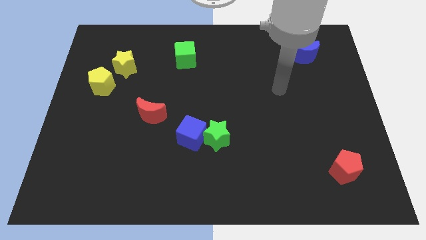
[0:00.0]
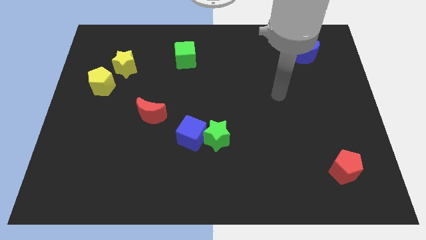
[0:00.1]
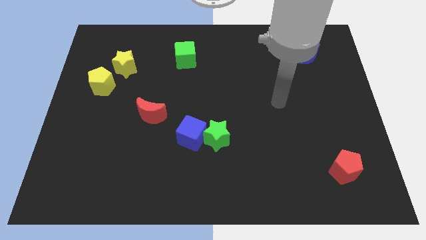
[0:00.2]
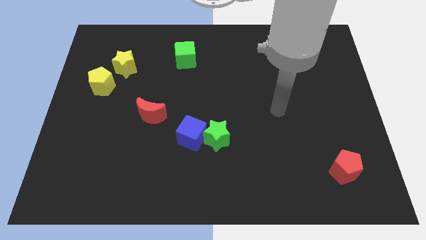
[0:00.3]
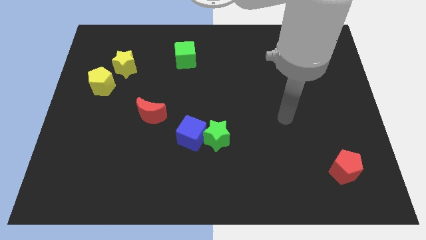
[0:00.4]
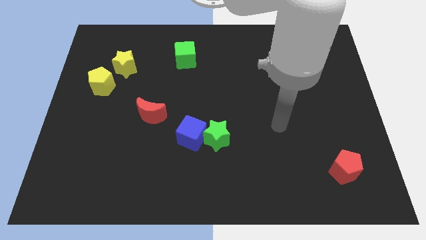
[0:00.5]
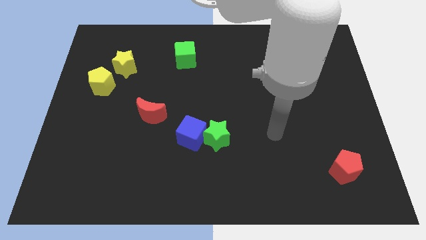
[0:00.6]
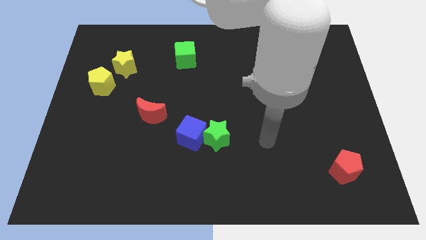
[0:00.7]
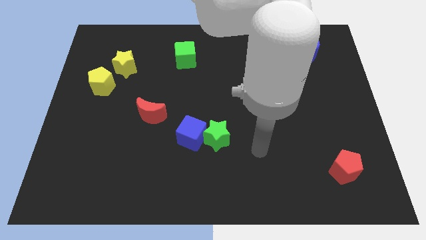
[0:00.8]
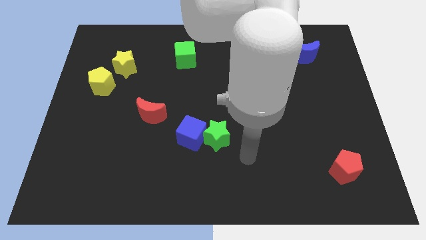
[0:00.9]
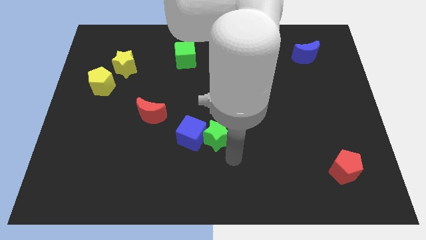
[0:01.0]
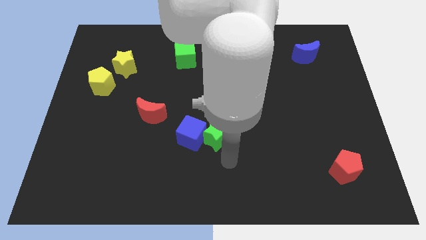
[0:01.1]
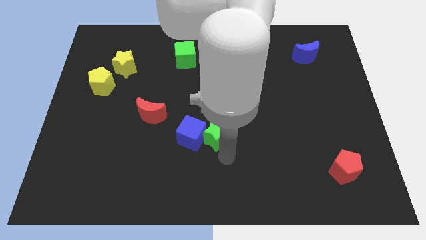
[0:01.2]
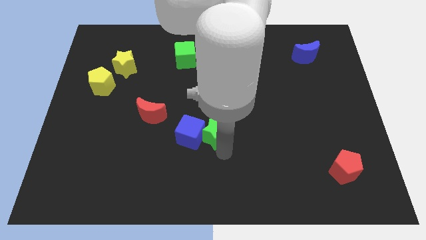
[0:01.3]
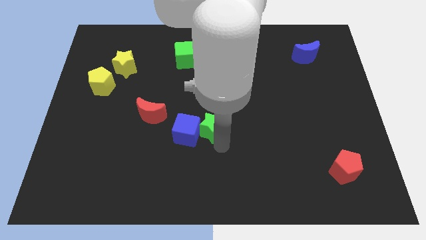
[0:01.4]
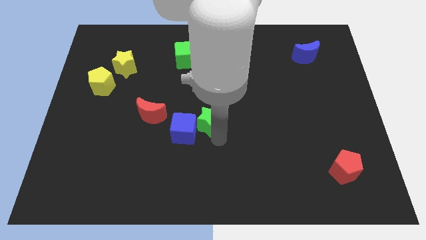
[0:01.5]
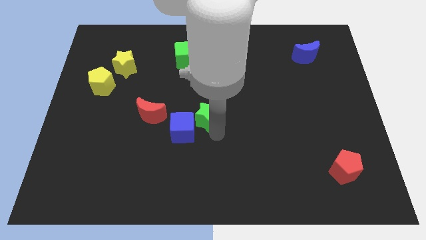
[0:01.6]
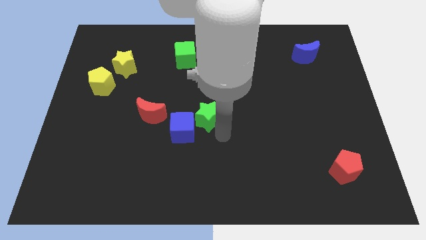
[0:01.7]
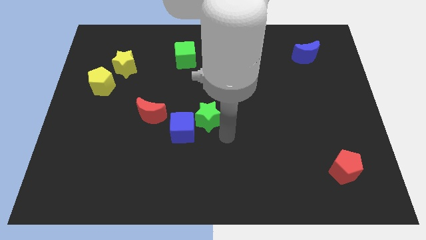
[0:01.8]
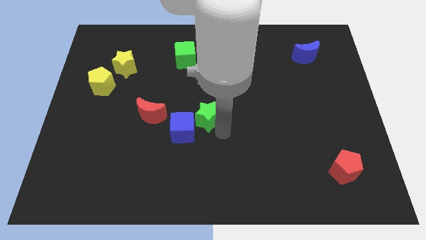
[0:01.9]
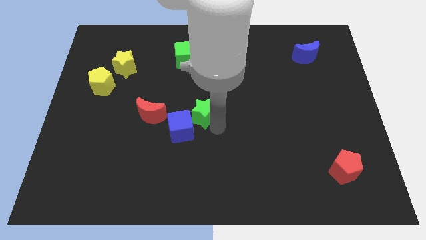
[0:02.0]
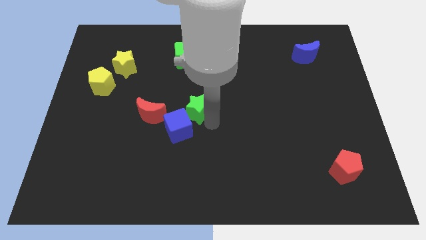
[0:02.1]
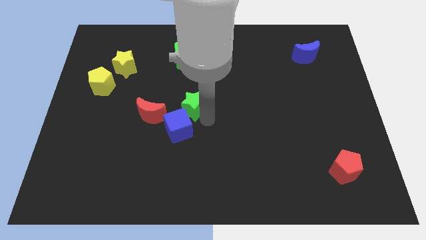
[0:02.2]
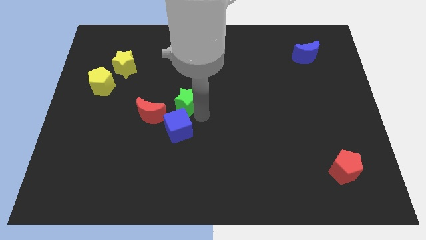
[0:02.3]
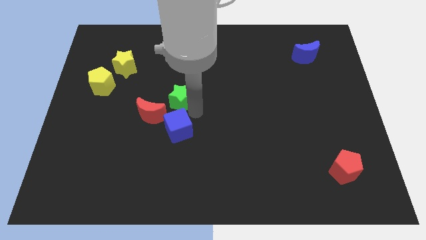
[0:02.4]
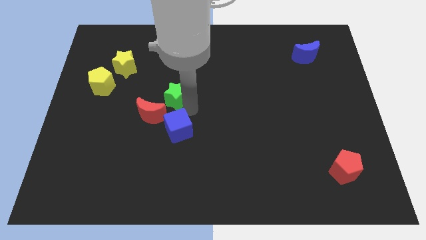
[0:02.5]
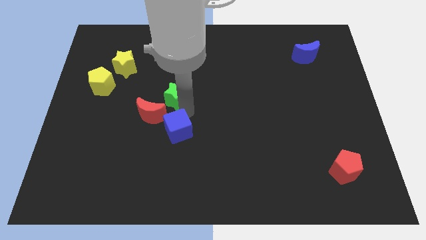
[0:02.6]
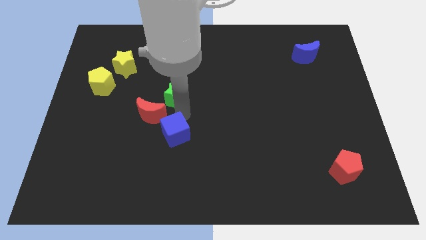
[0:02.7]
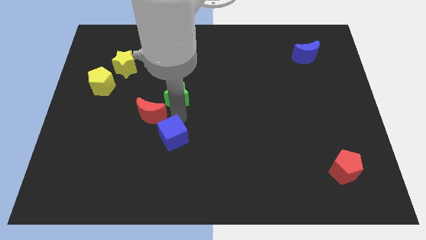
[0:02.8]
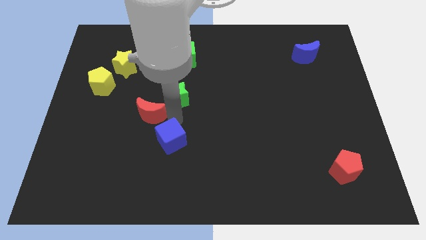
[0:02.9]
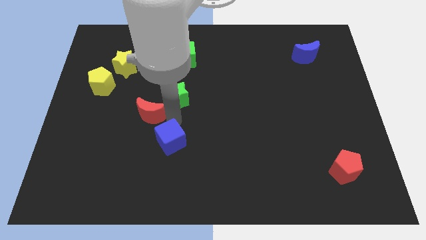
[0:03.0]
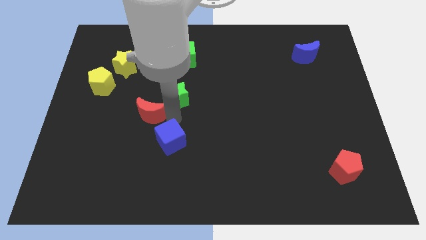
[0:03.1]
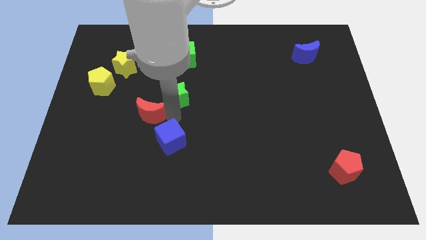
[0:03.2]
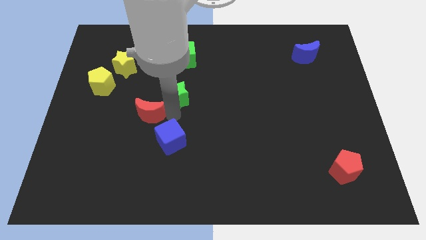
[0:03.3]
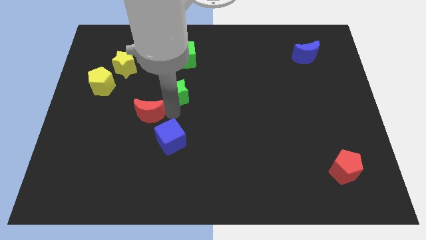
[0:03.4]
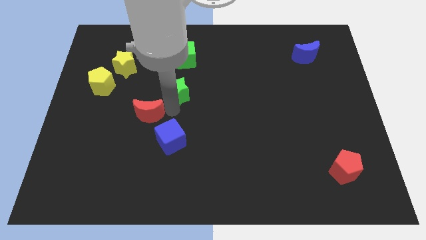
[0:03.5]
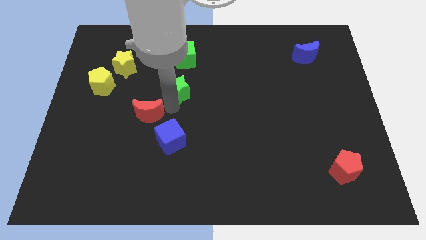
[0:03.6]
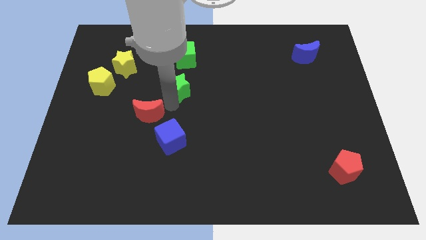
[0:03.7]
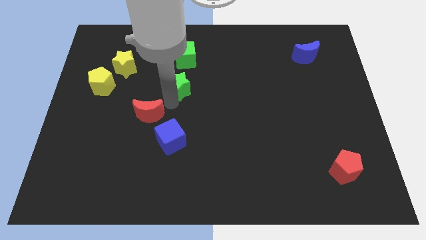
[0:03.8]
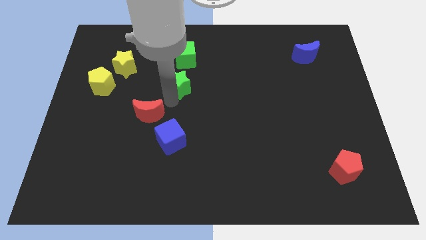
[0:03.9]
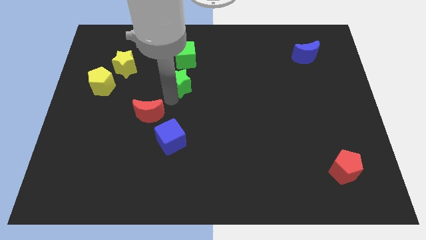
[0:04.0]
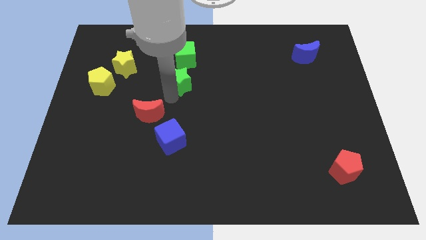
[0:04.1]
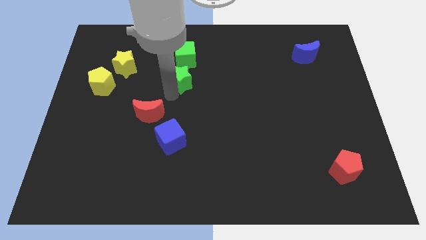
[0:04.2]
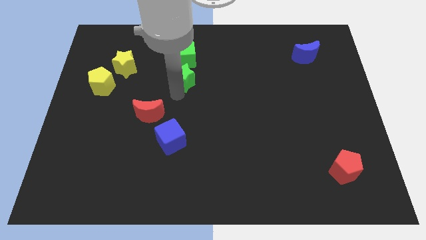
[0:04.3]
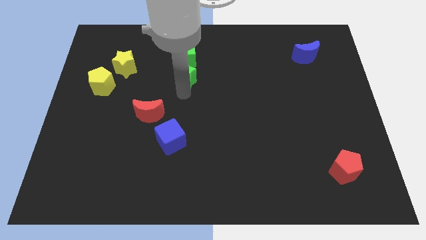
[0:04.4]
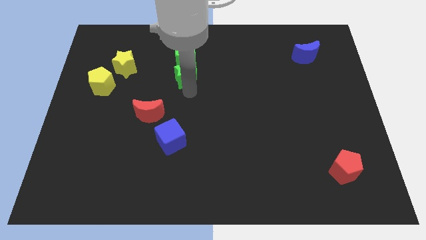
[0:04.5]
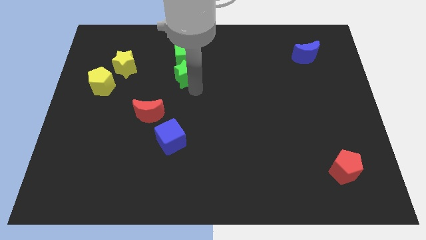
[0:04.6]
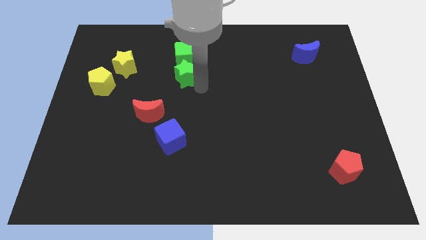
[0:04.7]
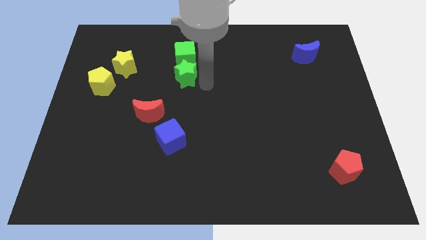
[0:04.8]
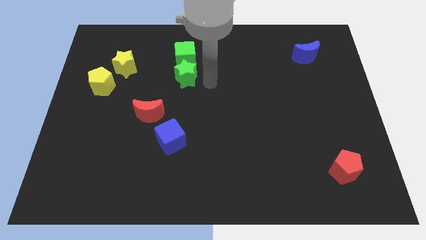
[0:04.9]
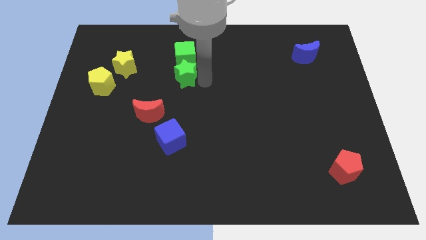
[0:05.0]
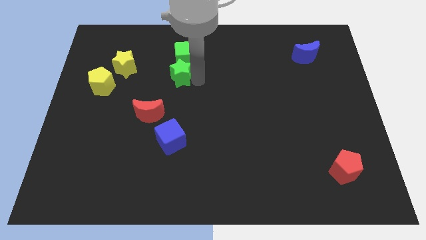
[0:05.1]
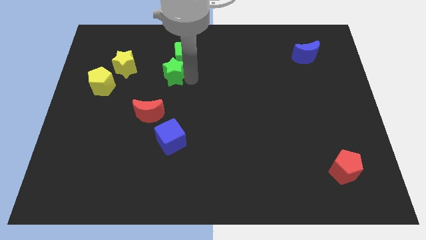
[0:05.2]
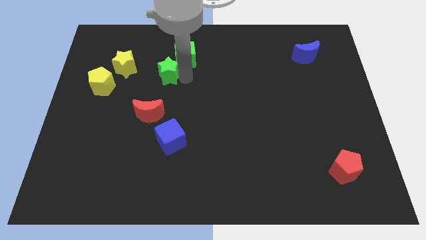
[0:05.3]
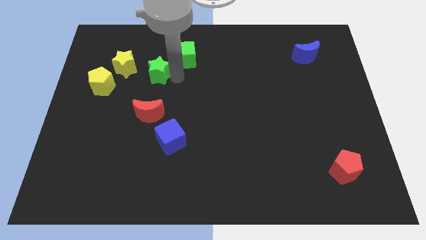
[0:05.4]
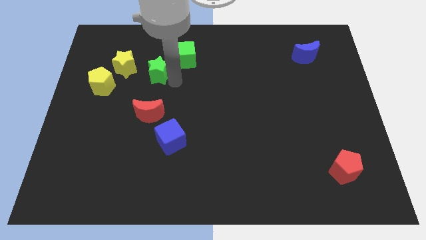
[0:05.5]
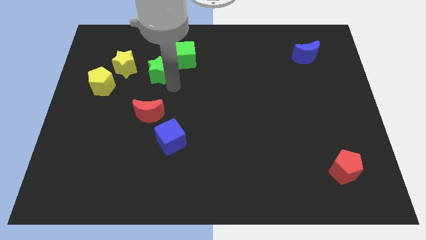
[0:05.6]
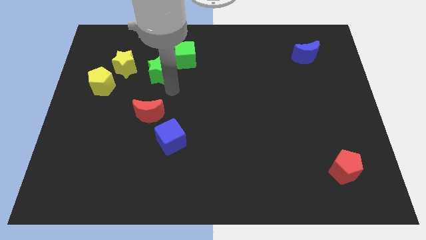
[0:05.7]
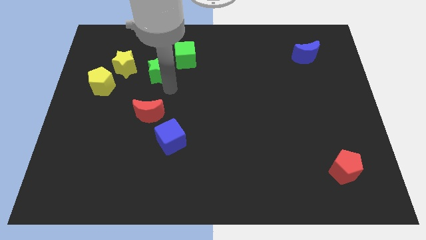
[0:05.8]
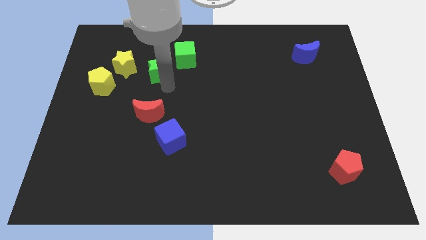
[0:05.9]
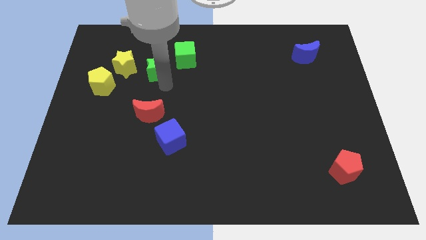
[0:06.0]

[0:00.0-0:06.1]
slide the green star just left of the green cube

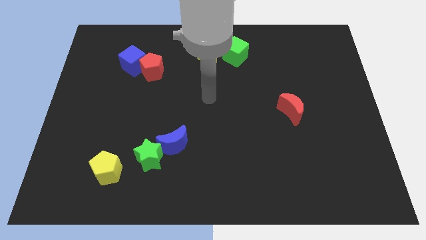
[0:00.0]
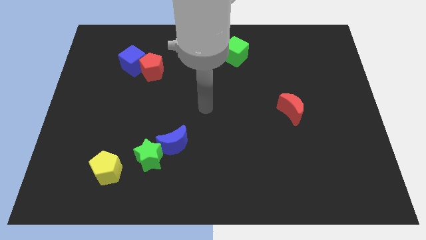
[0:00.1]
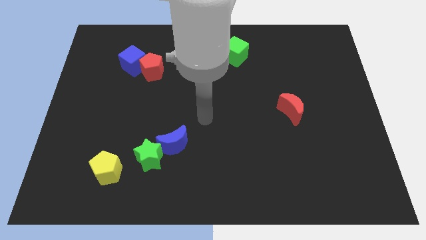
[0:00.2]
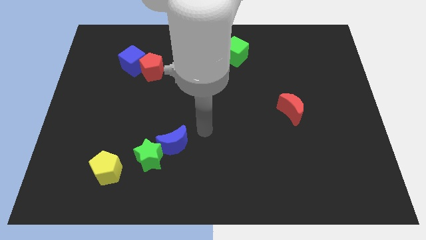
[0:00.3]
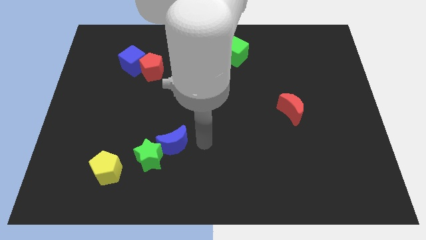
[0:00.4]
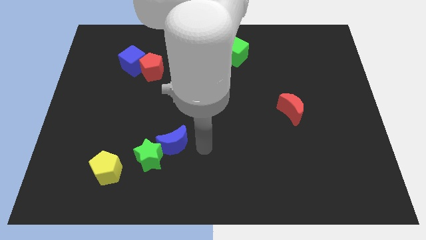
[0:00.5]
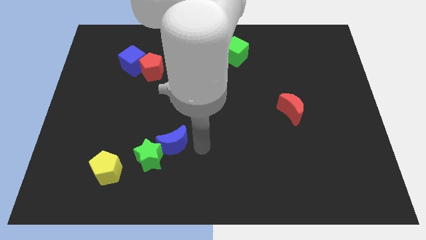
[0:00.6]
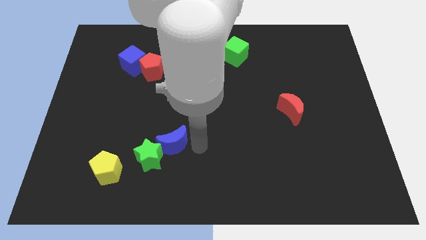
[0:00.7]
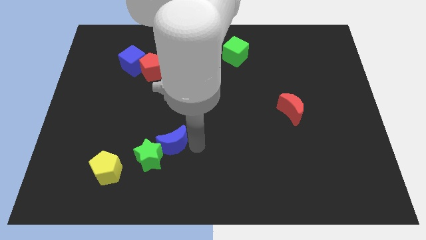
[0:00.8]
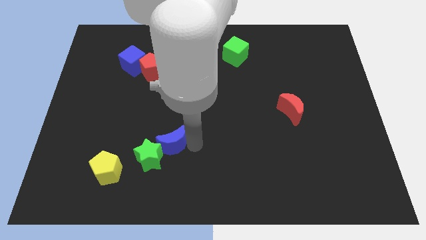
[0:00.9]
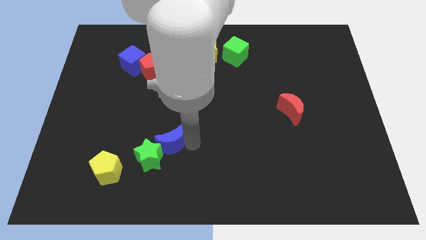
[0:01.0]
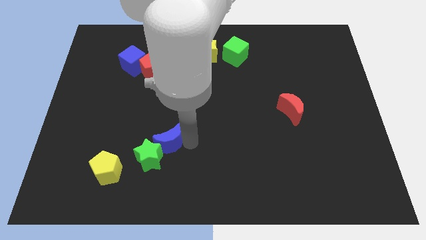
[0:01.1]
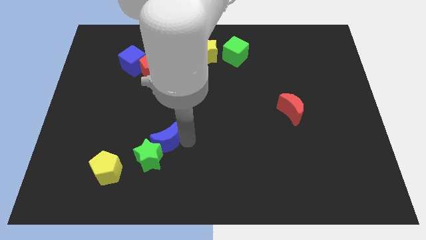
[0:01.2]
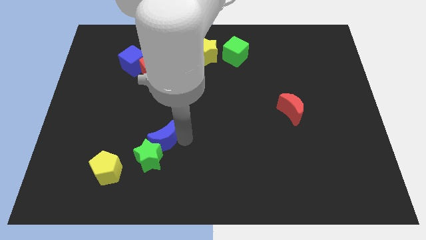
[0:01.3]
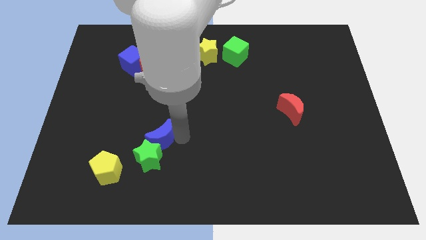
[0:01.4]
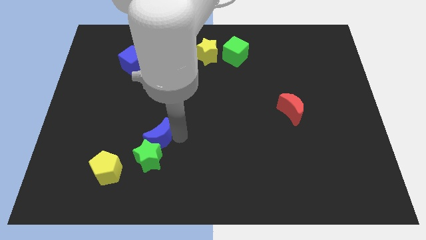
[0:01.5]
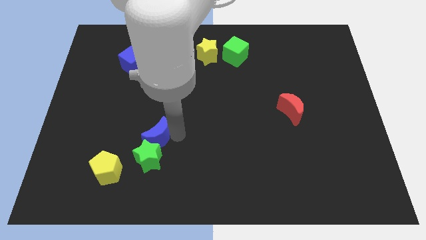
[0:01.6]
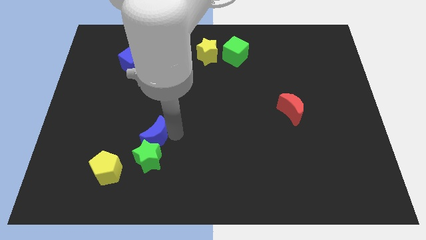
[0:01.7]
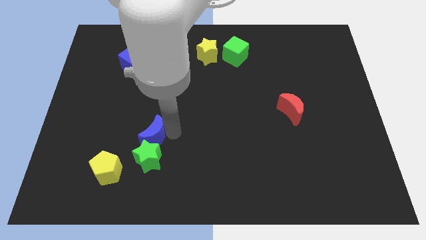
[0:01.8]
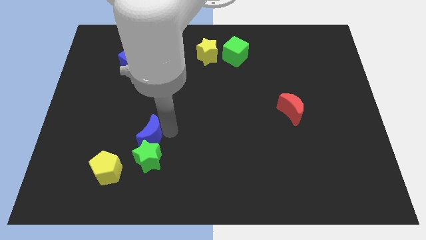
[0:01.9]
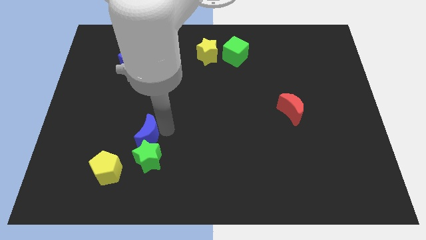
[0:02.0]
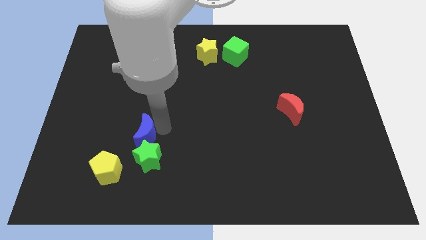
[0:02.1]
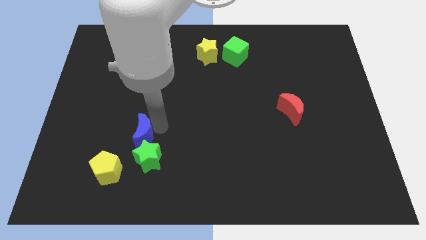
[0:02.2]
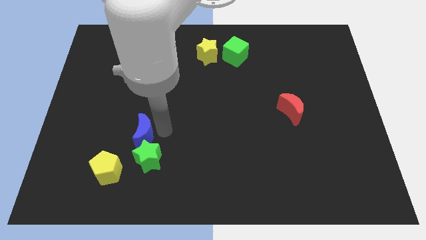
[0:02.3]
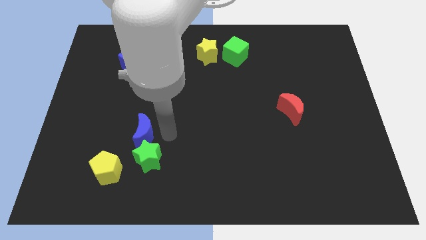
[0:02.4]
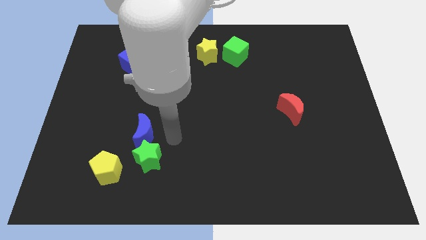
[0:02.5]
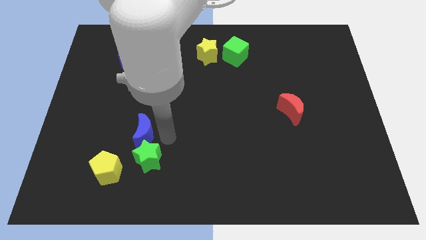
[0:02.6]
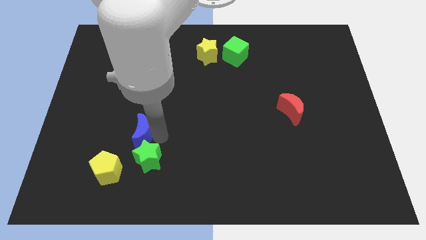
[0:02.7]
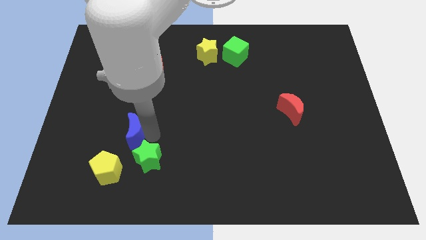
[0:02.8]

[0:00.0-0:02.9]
slide the blue moon above the yellow pentagon
